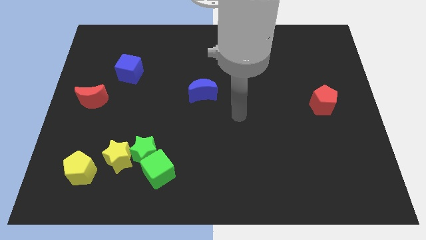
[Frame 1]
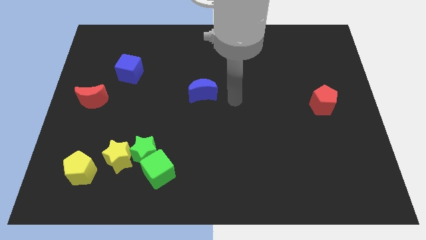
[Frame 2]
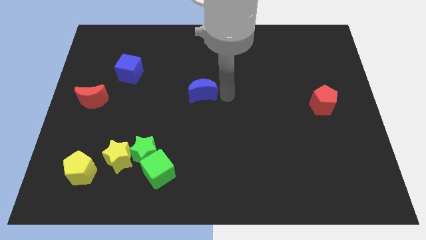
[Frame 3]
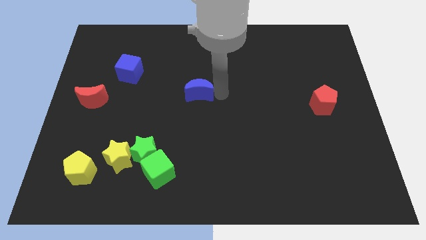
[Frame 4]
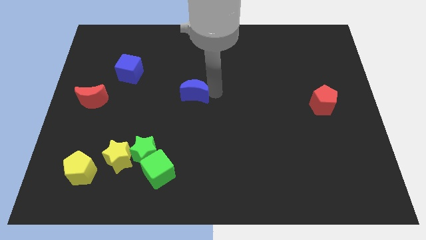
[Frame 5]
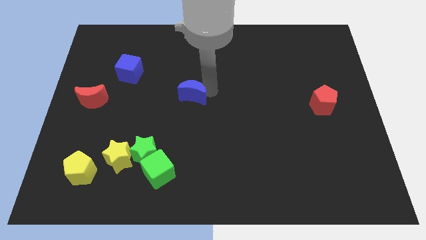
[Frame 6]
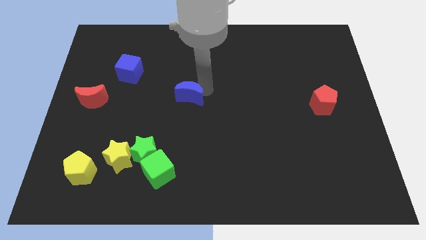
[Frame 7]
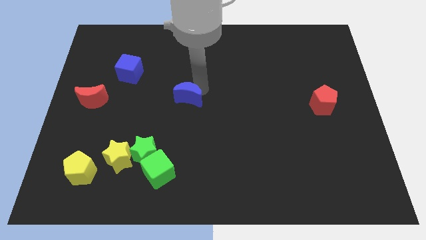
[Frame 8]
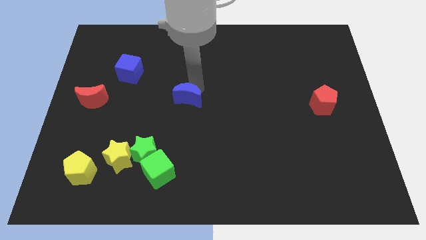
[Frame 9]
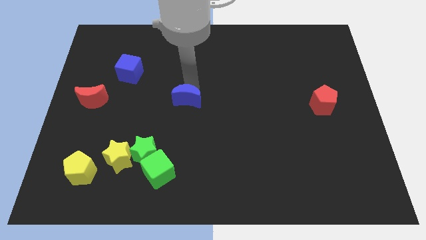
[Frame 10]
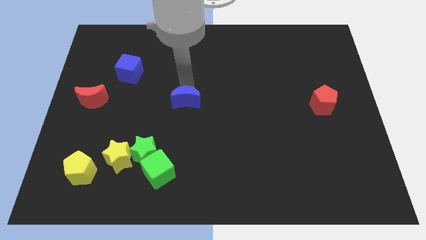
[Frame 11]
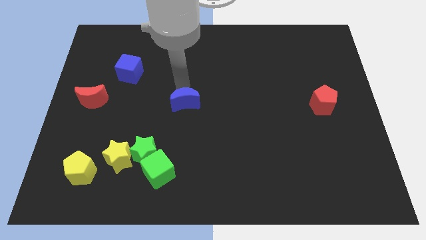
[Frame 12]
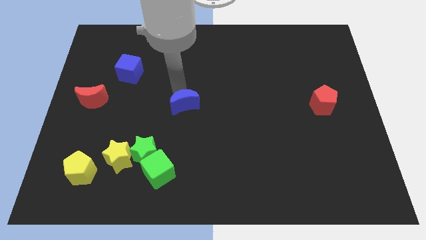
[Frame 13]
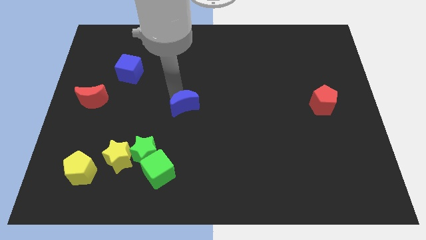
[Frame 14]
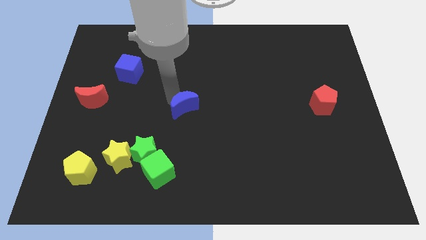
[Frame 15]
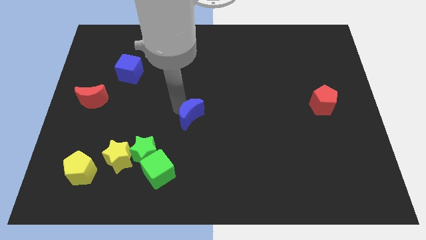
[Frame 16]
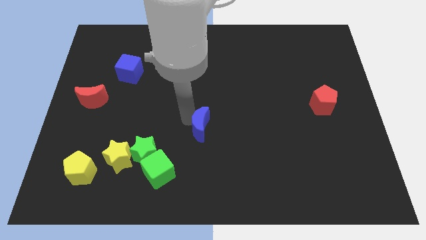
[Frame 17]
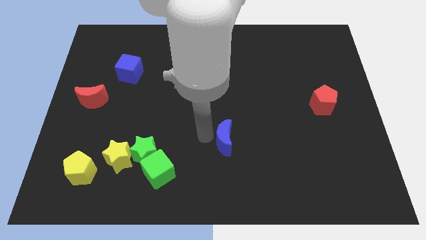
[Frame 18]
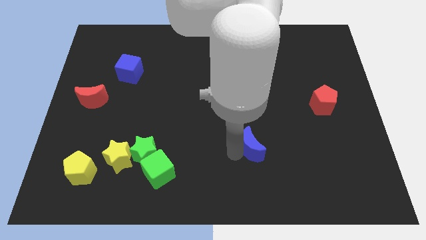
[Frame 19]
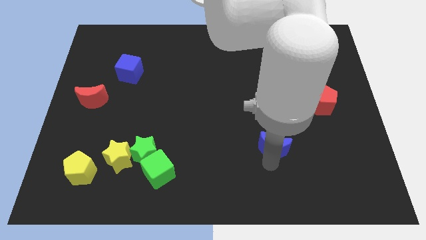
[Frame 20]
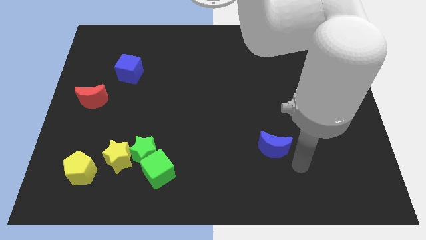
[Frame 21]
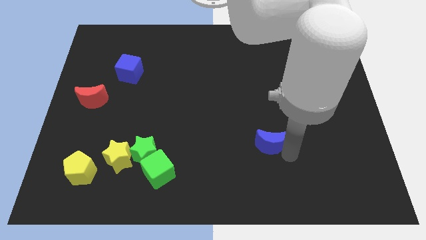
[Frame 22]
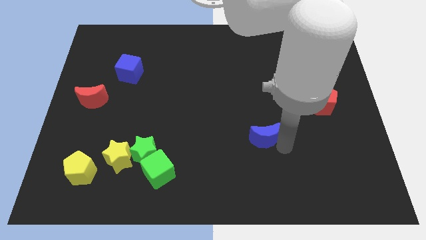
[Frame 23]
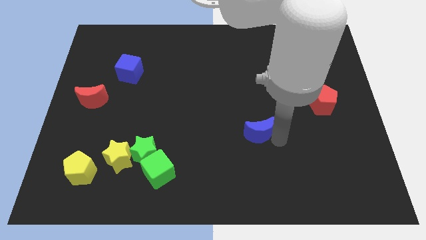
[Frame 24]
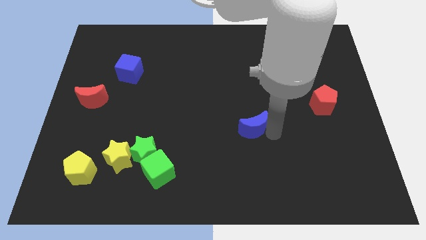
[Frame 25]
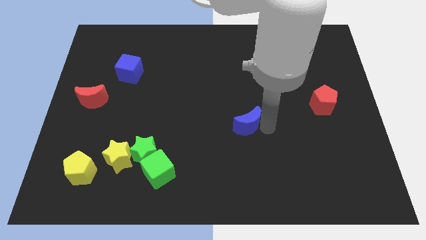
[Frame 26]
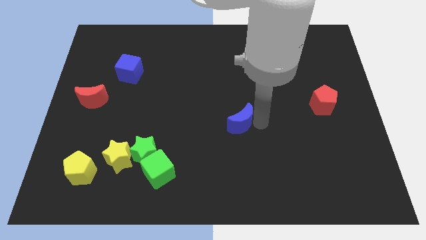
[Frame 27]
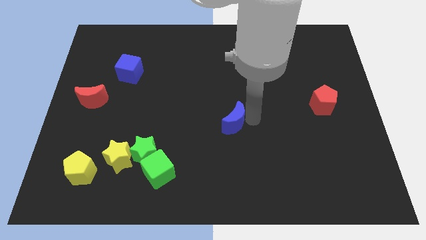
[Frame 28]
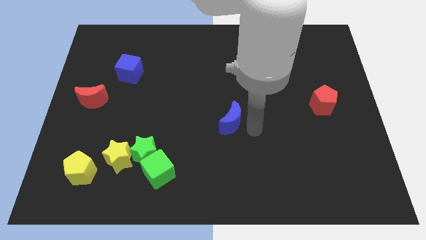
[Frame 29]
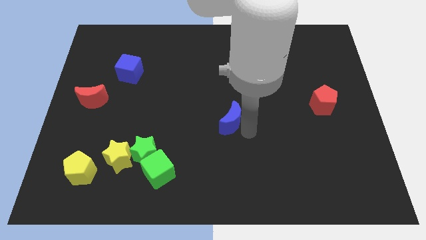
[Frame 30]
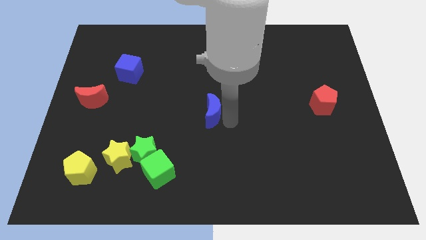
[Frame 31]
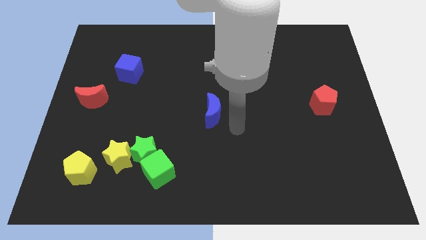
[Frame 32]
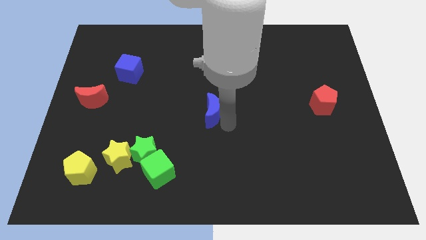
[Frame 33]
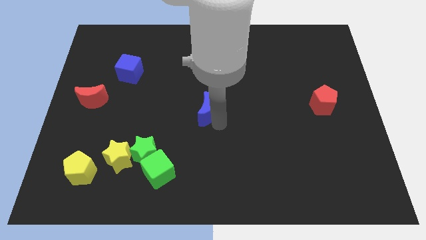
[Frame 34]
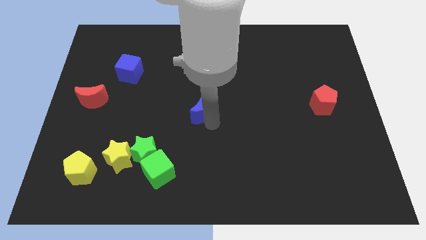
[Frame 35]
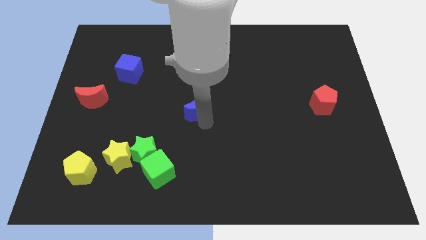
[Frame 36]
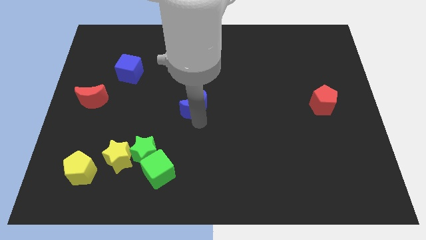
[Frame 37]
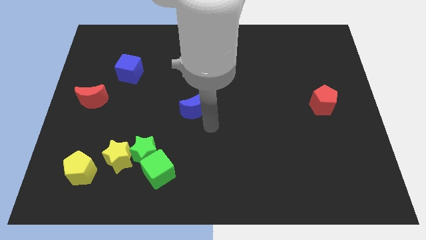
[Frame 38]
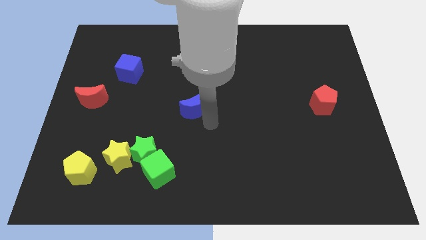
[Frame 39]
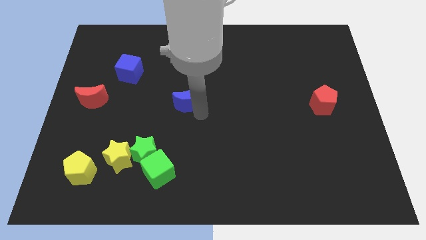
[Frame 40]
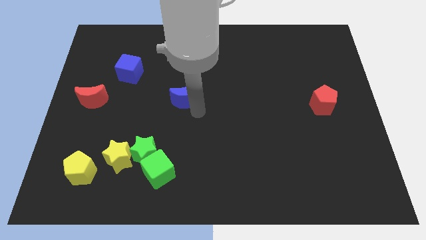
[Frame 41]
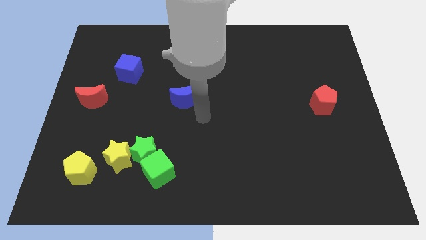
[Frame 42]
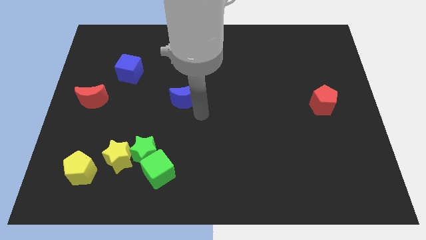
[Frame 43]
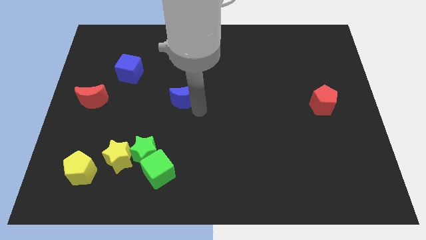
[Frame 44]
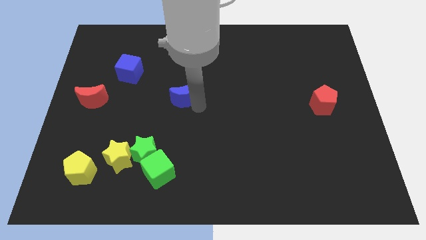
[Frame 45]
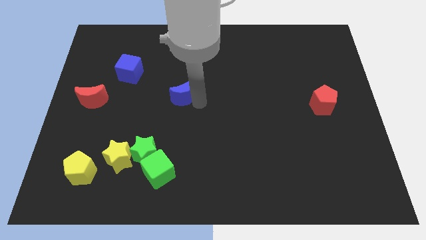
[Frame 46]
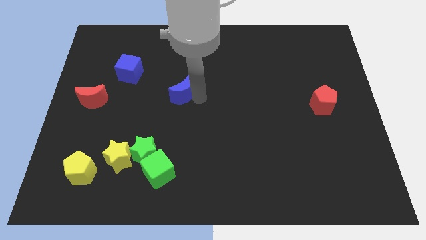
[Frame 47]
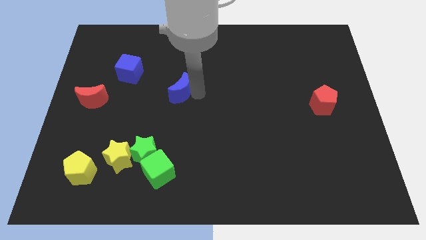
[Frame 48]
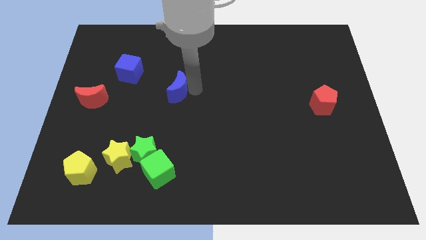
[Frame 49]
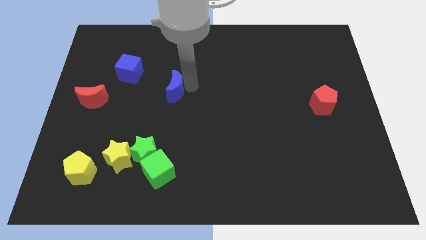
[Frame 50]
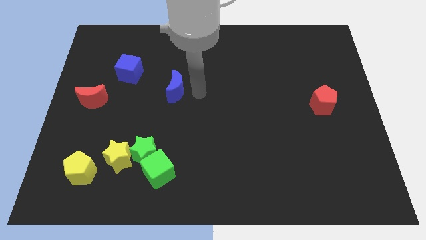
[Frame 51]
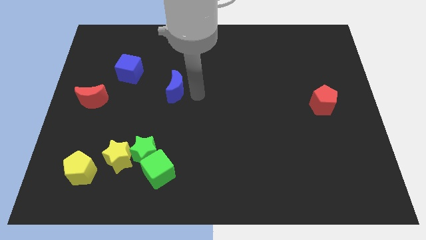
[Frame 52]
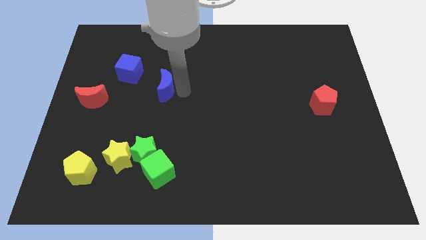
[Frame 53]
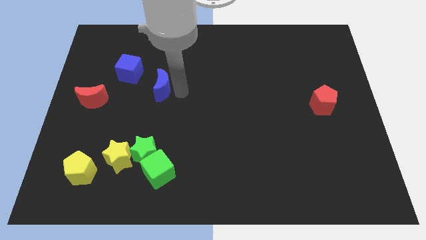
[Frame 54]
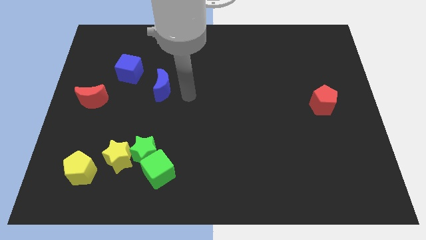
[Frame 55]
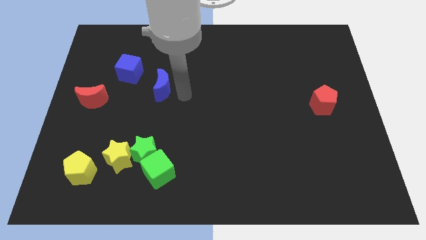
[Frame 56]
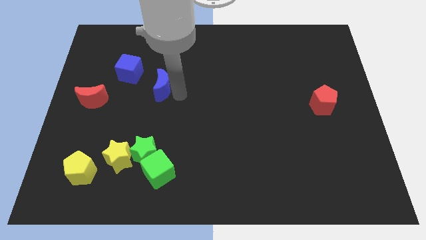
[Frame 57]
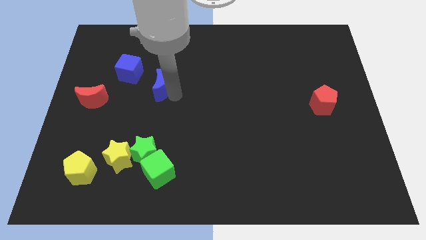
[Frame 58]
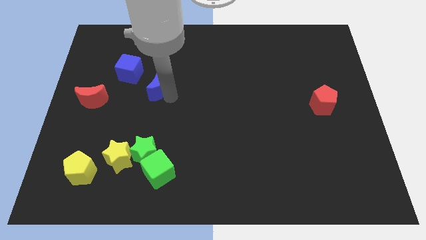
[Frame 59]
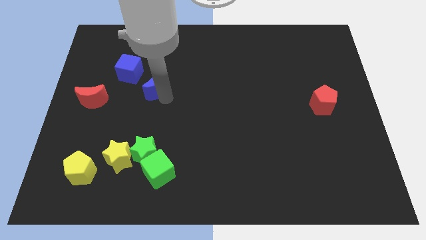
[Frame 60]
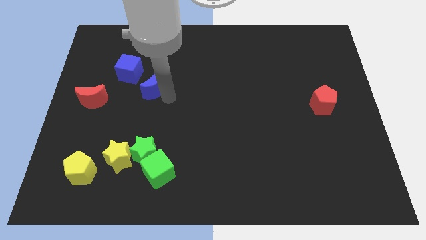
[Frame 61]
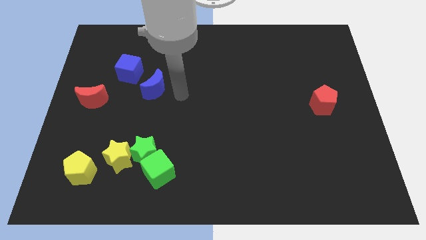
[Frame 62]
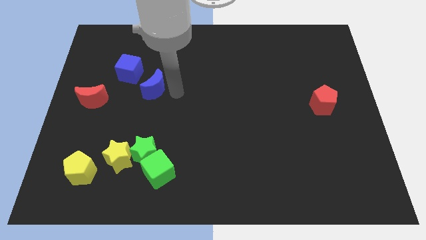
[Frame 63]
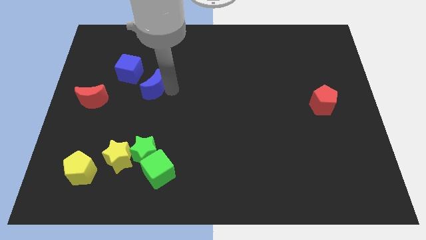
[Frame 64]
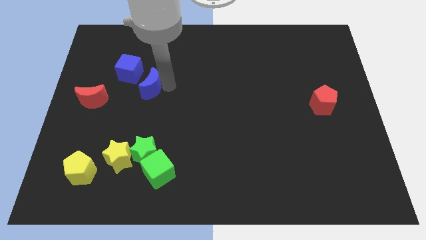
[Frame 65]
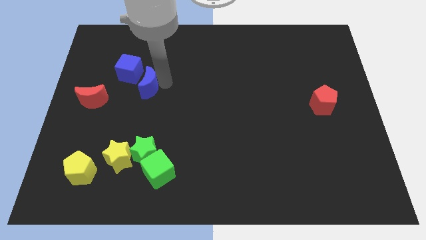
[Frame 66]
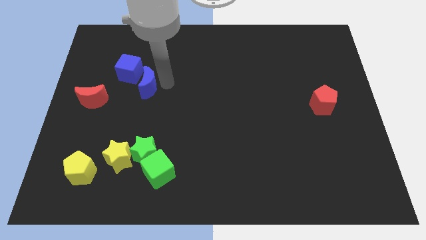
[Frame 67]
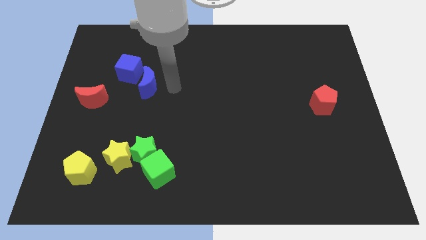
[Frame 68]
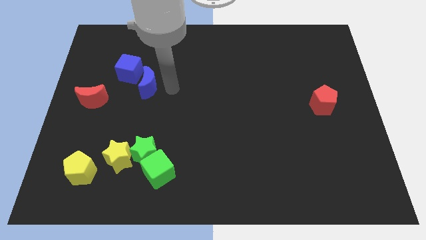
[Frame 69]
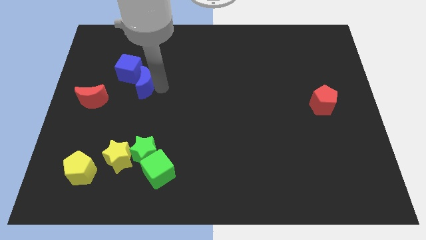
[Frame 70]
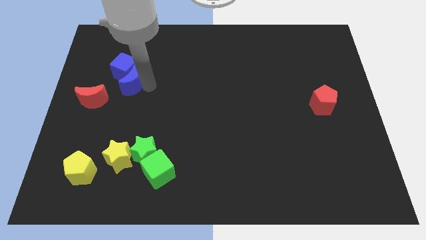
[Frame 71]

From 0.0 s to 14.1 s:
put the blue moon to the top right of the red moon
